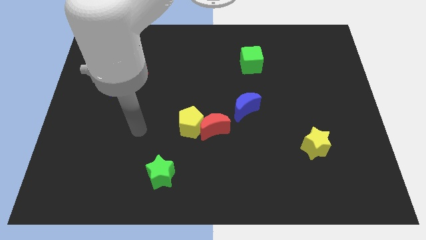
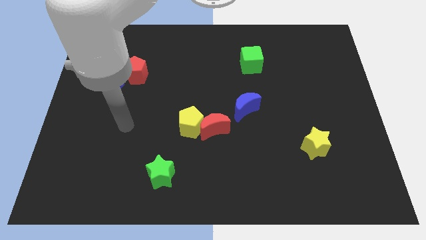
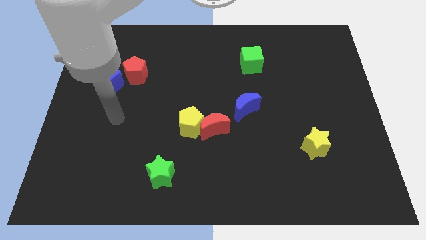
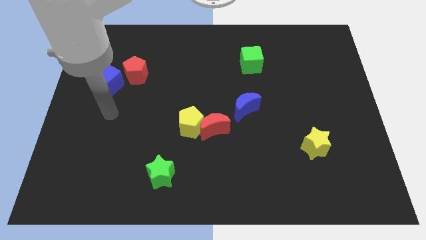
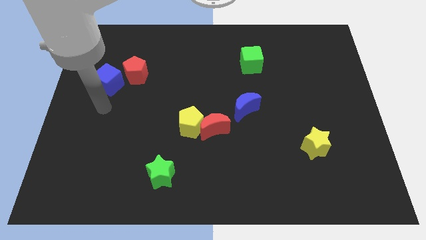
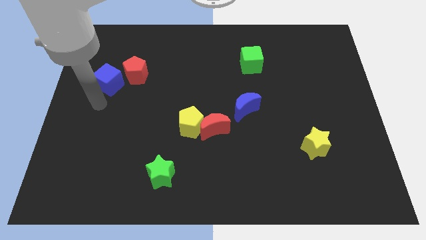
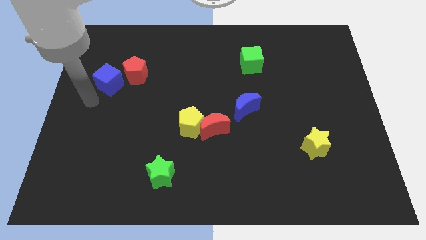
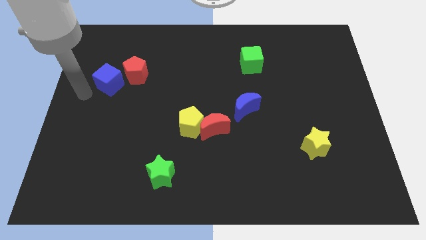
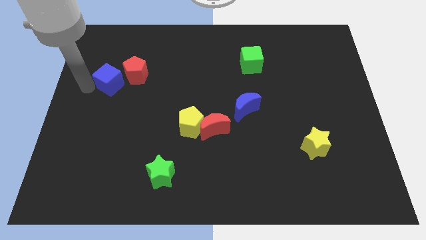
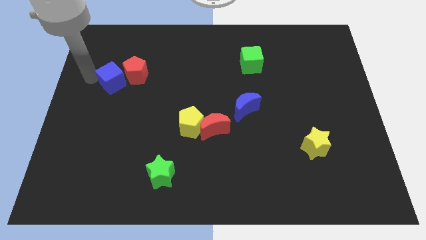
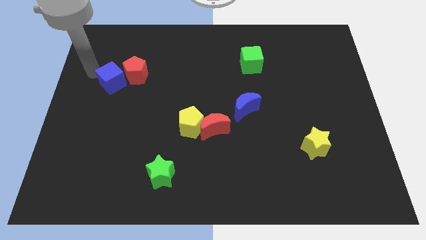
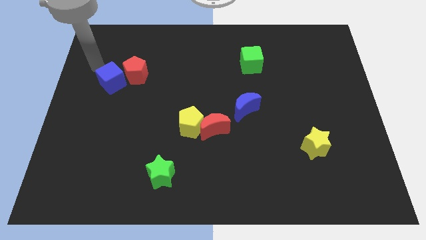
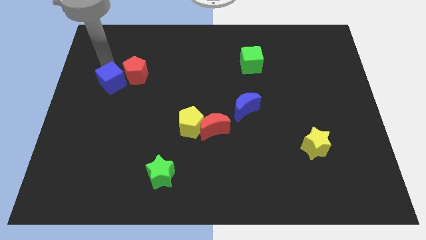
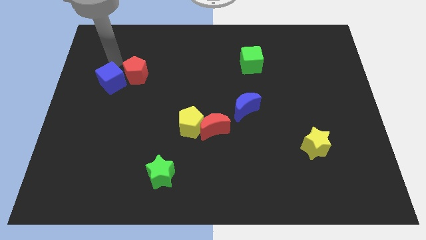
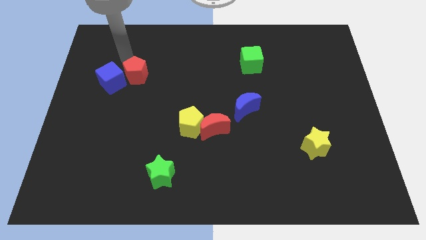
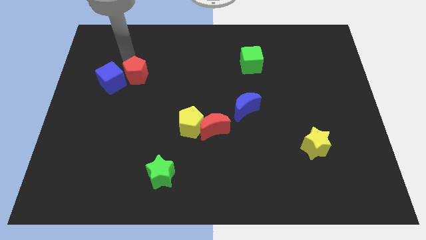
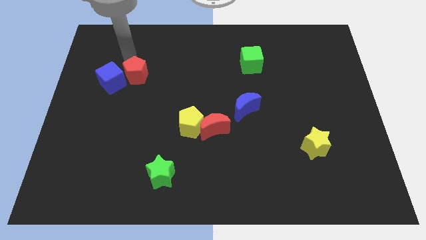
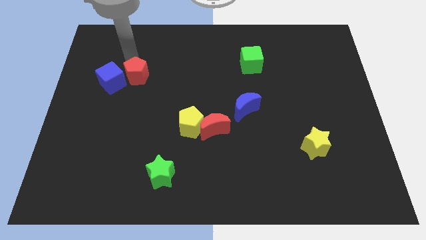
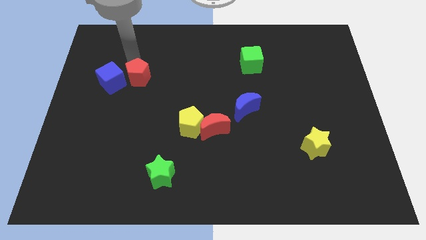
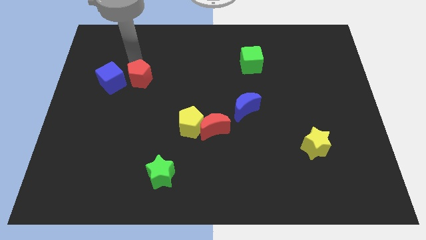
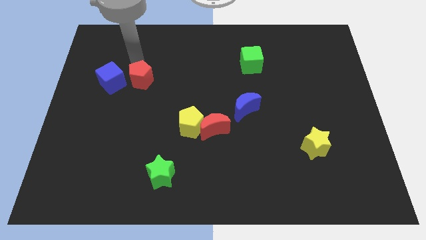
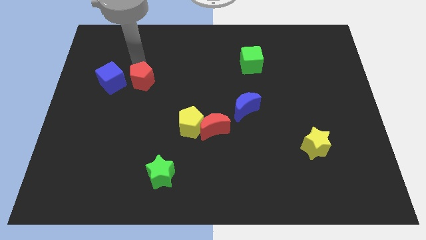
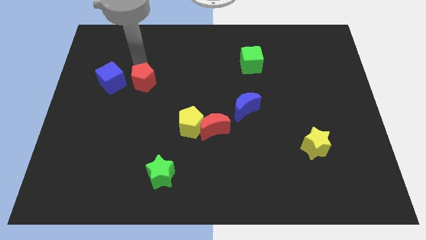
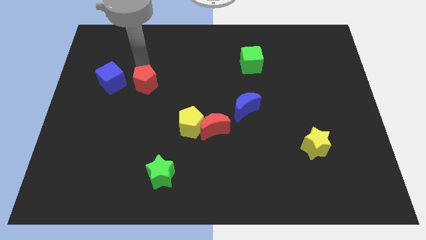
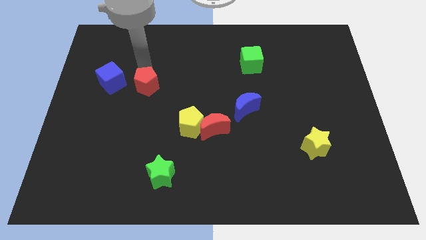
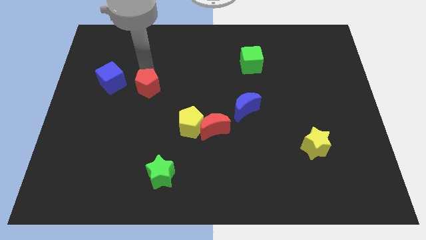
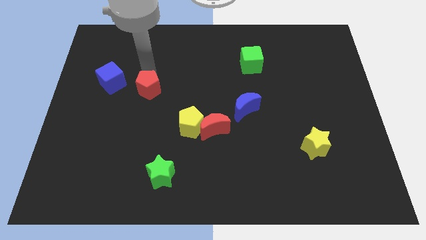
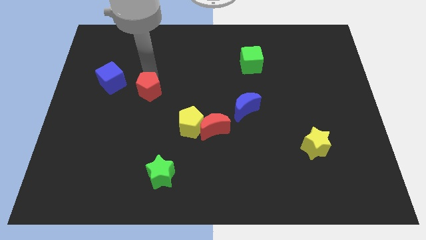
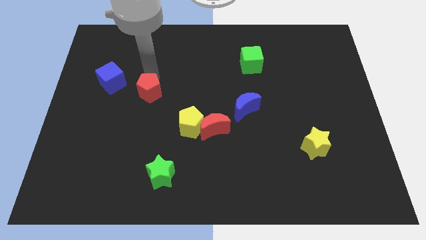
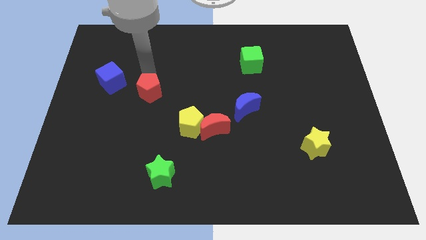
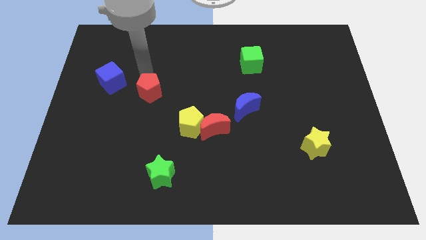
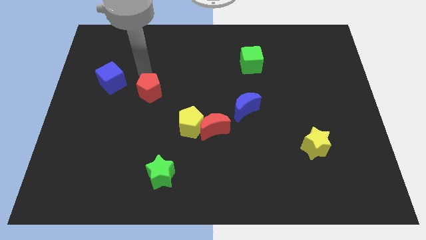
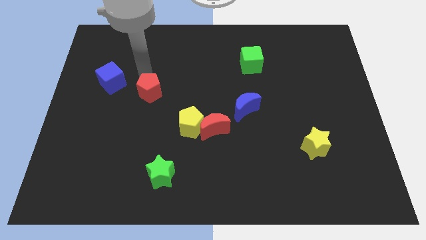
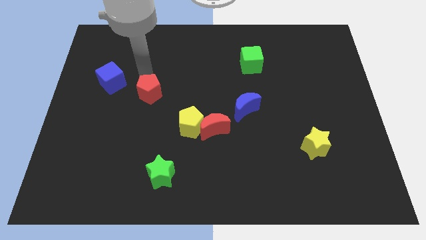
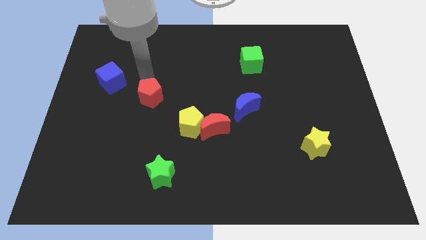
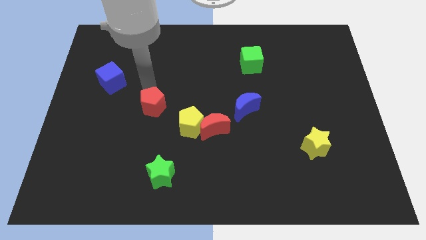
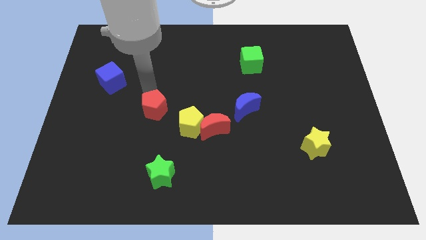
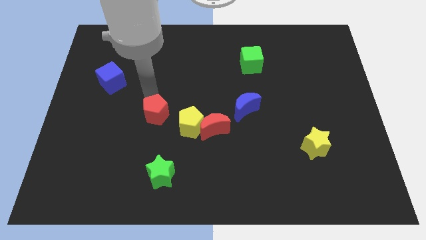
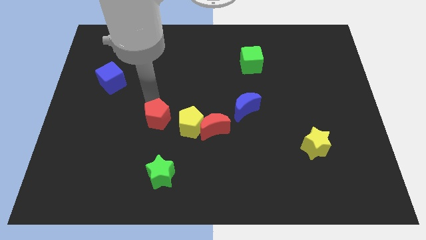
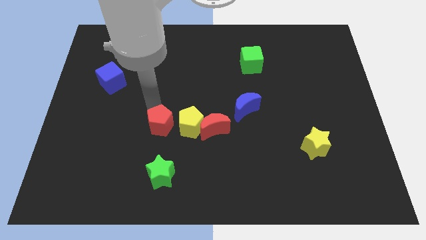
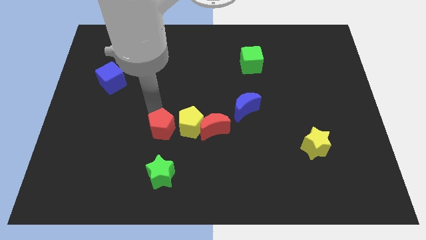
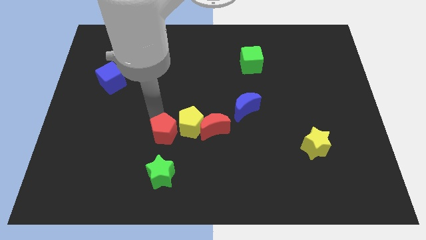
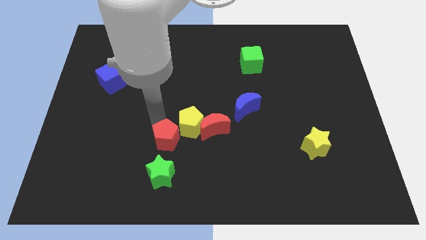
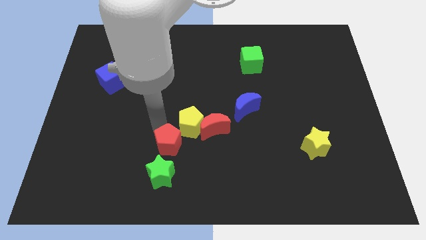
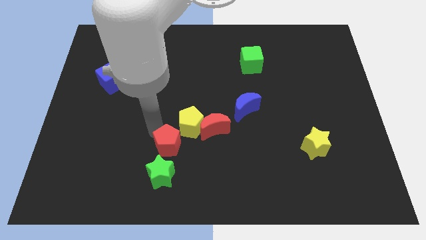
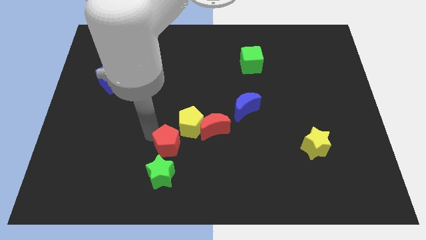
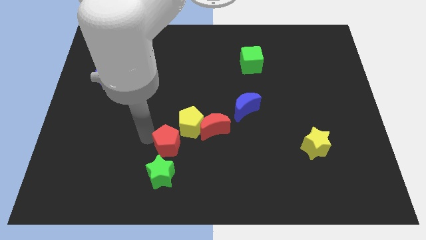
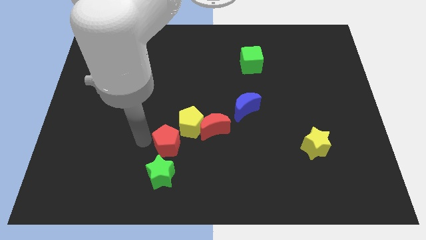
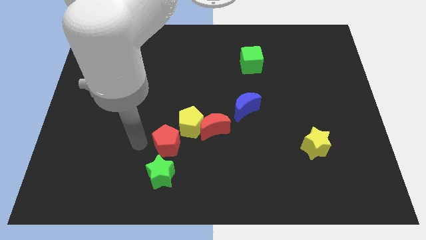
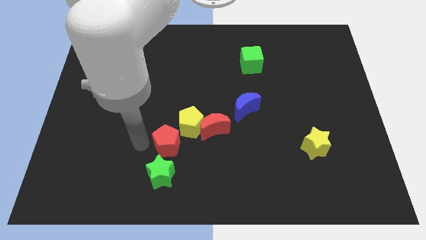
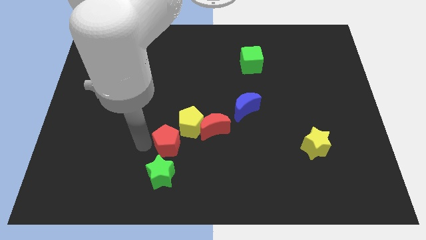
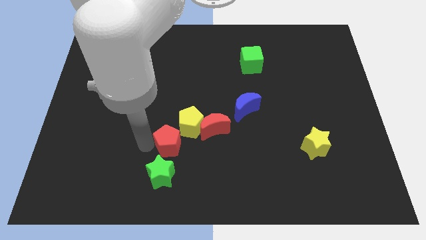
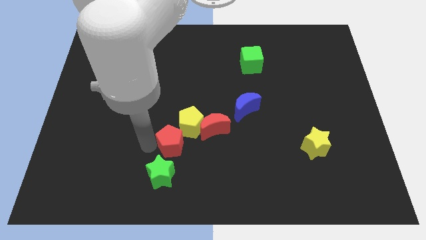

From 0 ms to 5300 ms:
slide the red pentagon down and right diagonally

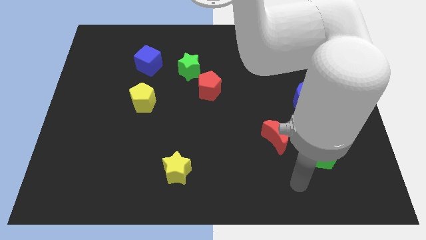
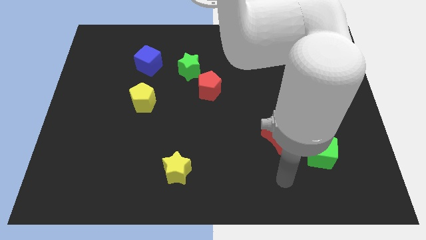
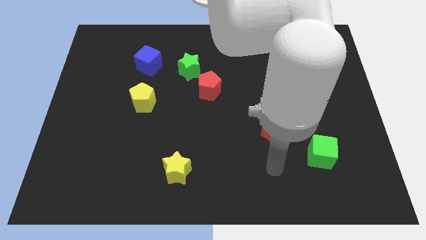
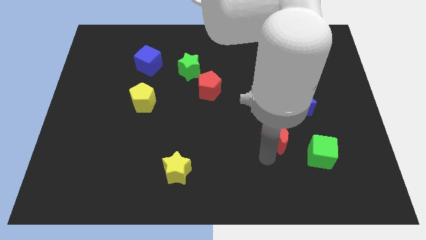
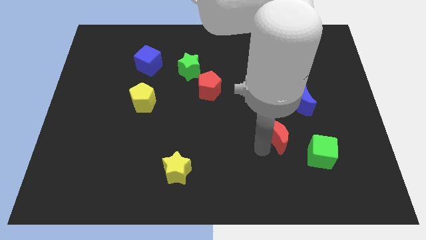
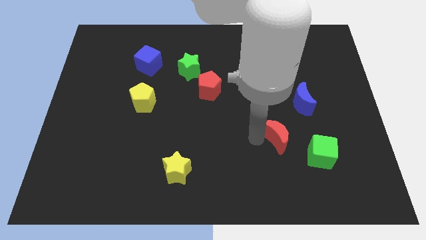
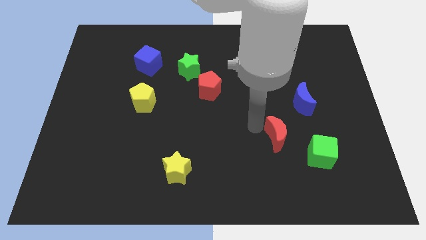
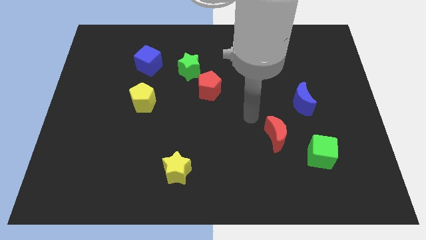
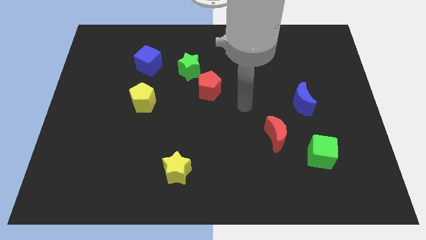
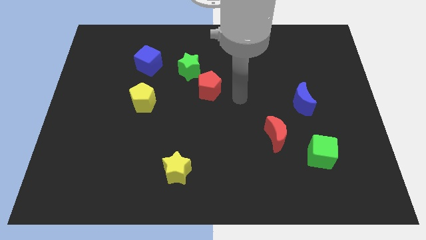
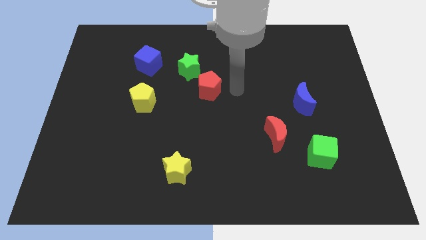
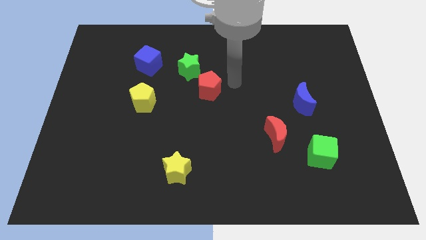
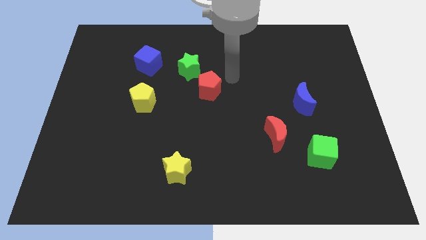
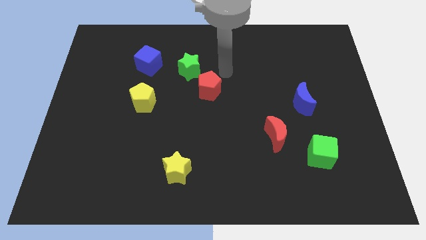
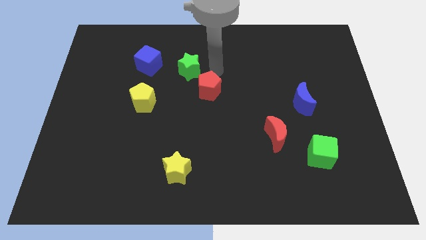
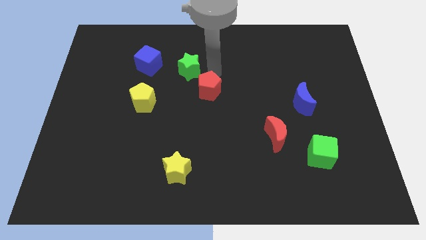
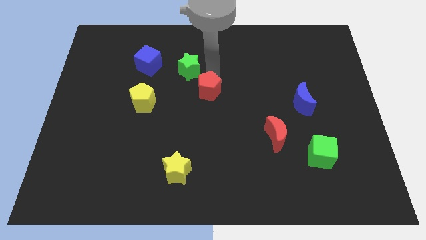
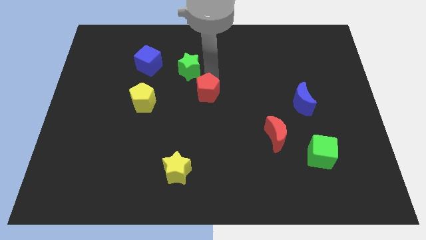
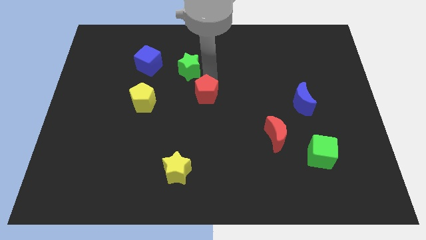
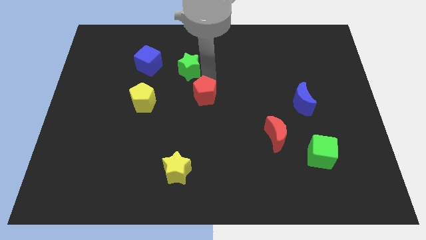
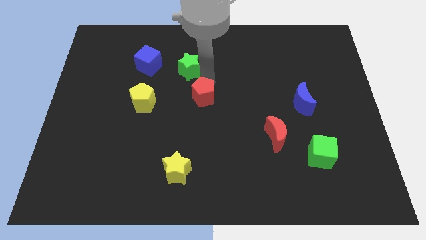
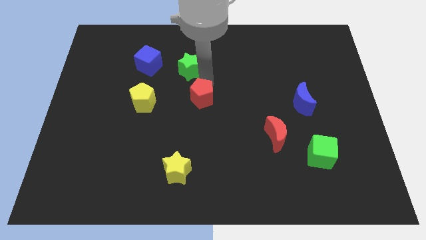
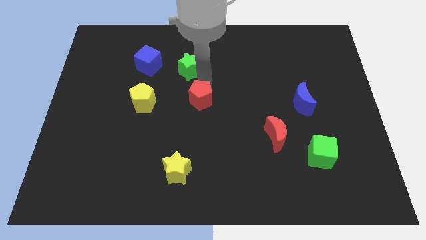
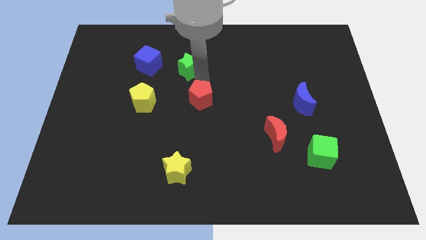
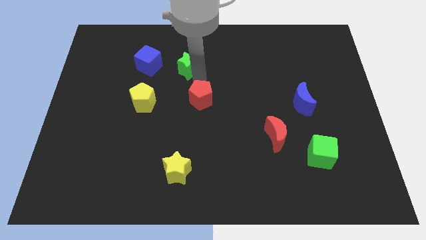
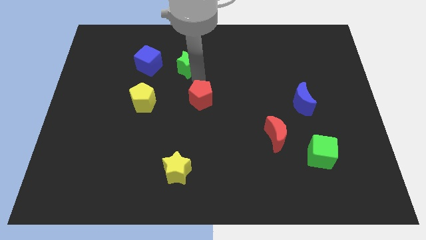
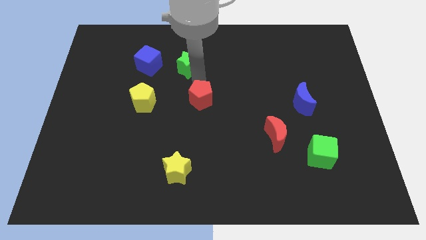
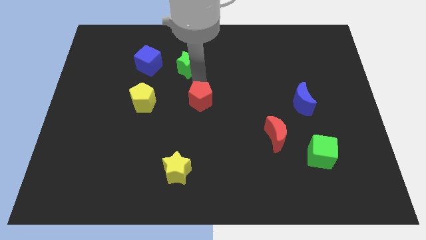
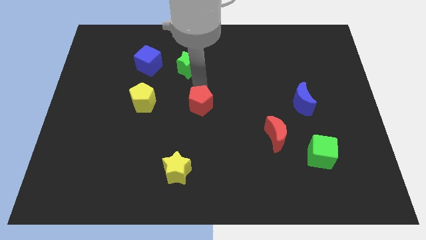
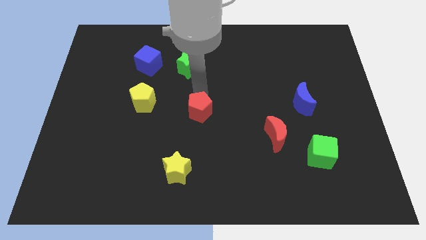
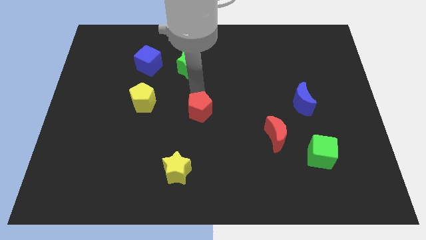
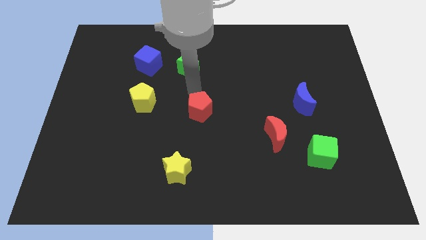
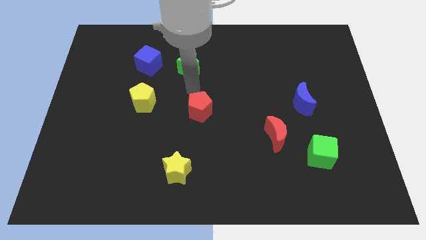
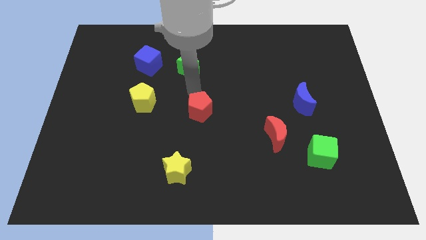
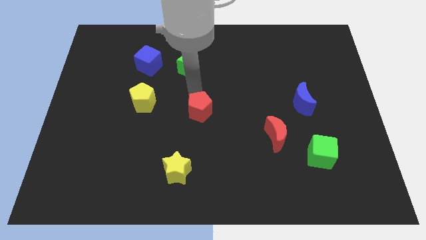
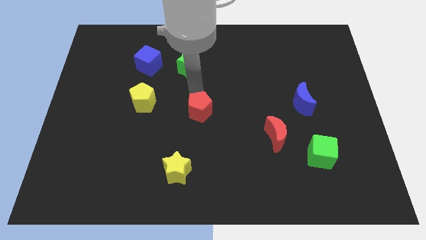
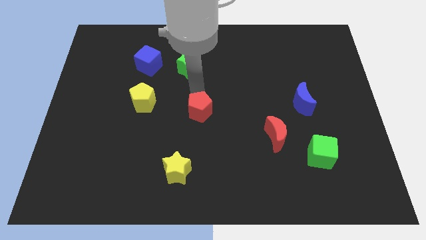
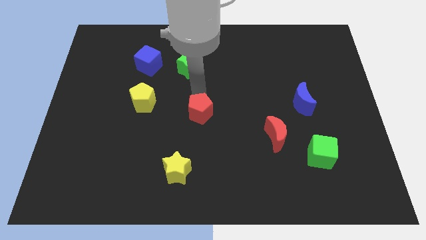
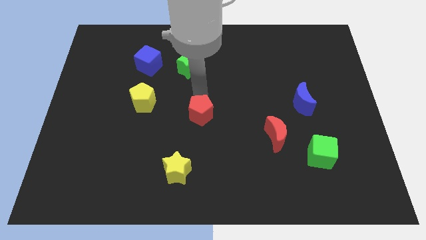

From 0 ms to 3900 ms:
slide the red pentagon a little bit downwards
